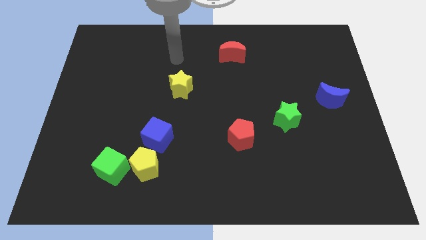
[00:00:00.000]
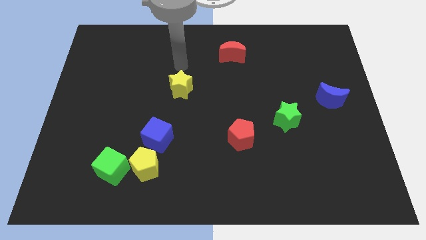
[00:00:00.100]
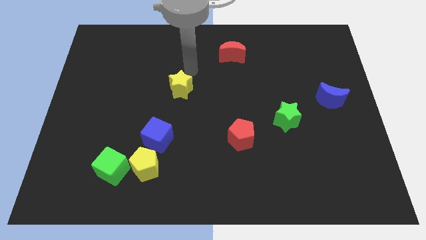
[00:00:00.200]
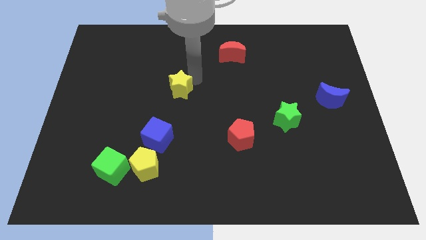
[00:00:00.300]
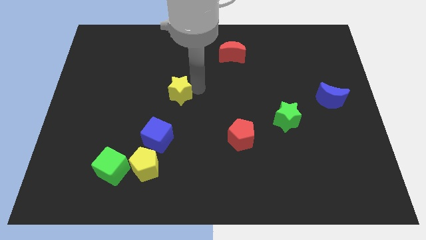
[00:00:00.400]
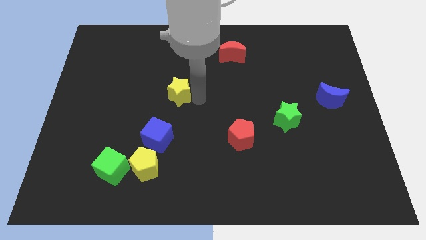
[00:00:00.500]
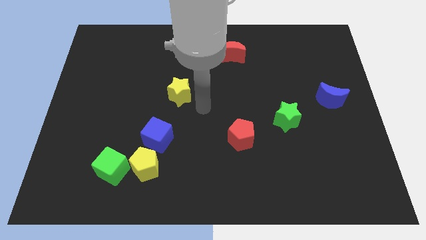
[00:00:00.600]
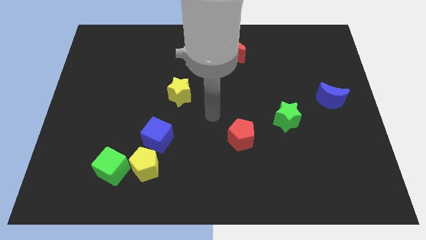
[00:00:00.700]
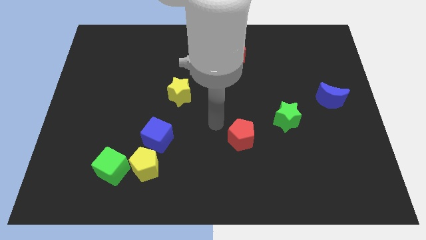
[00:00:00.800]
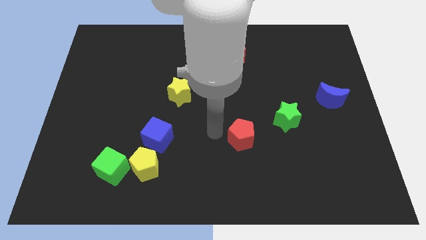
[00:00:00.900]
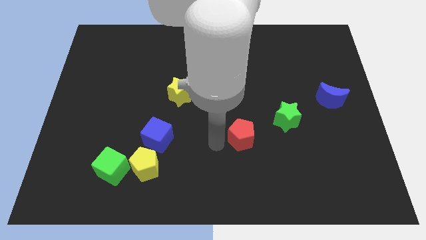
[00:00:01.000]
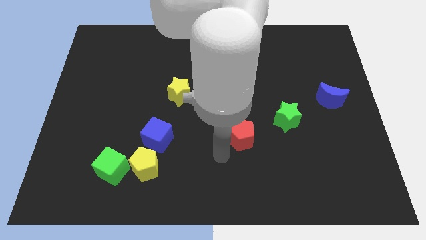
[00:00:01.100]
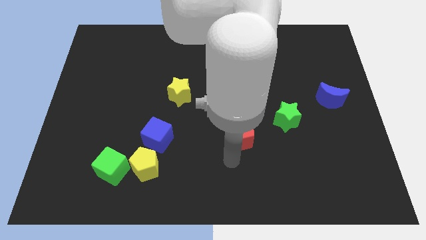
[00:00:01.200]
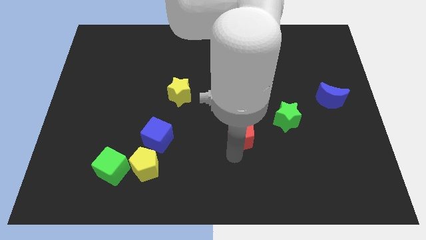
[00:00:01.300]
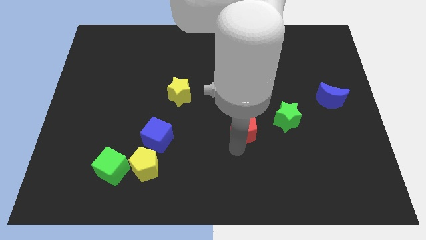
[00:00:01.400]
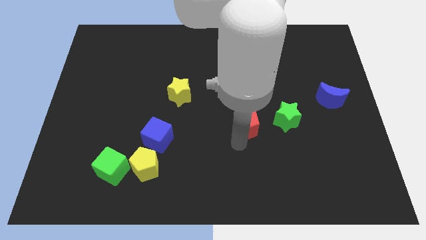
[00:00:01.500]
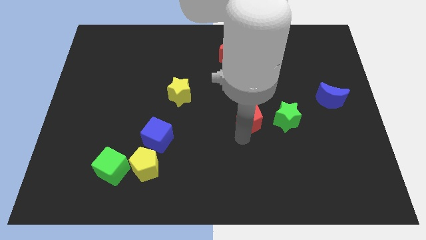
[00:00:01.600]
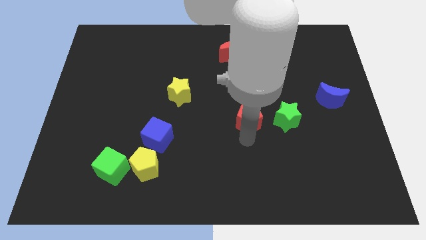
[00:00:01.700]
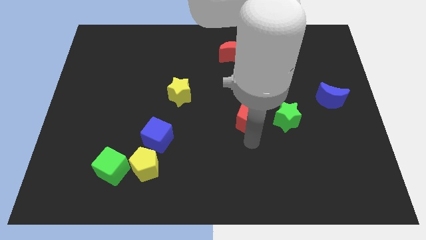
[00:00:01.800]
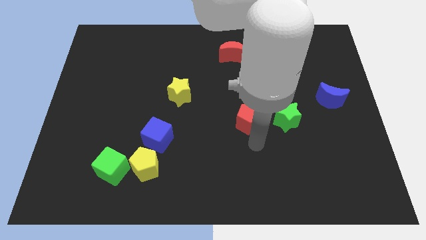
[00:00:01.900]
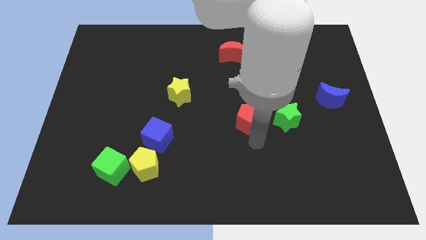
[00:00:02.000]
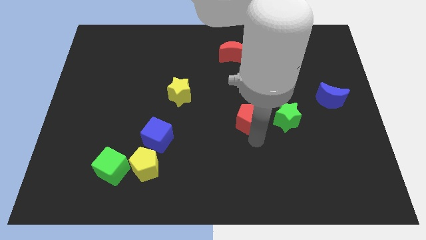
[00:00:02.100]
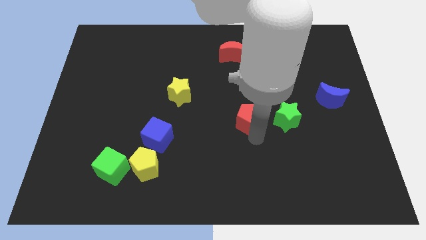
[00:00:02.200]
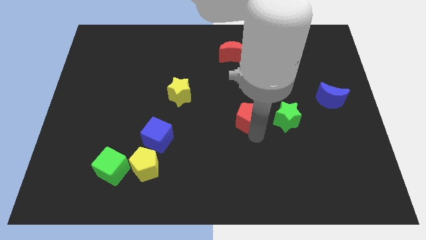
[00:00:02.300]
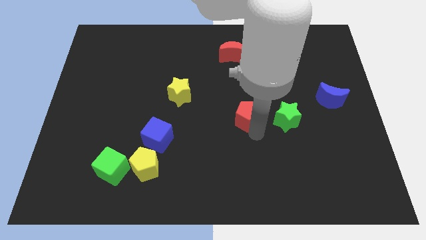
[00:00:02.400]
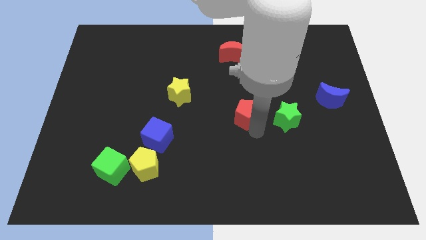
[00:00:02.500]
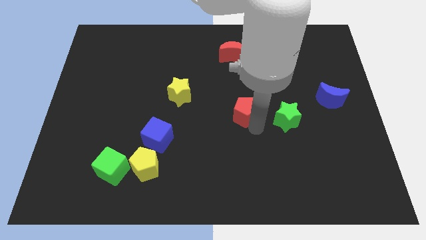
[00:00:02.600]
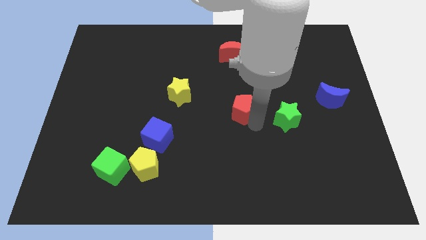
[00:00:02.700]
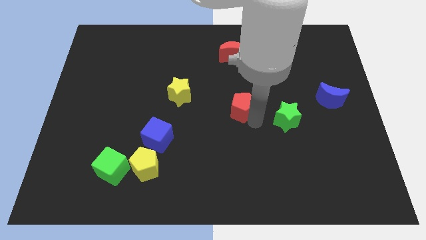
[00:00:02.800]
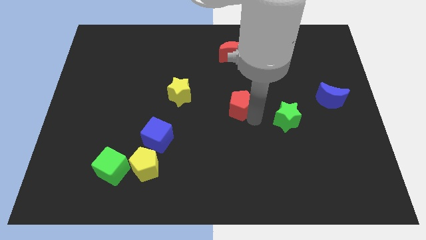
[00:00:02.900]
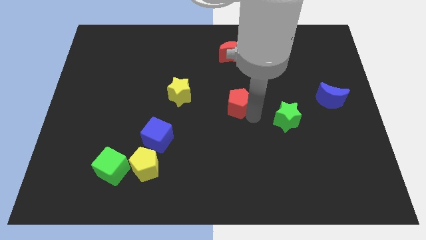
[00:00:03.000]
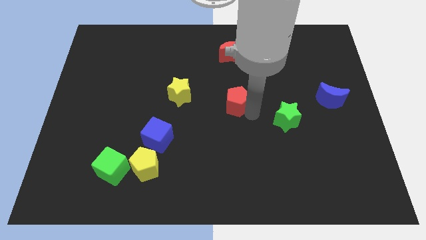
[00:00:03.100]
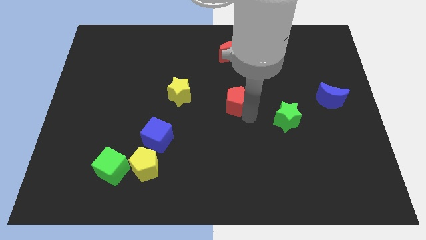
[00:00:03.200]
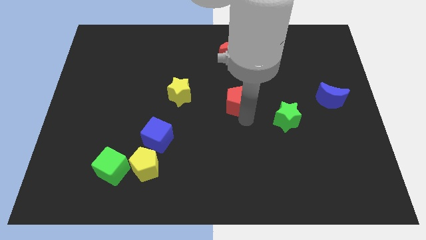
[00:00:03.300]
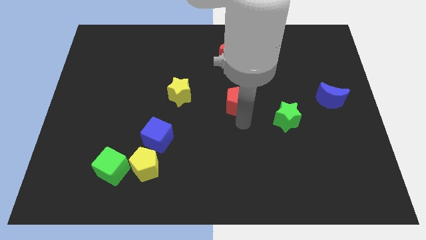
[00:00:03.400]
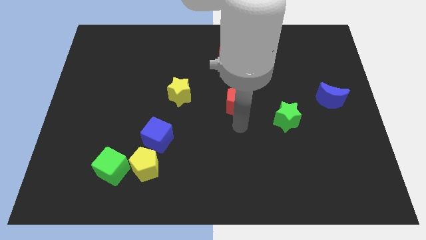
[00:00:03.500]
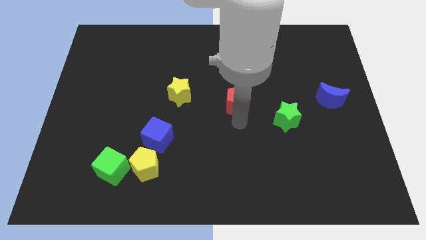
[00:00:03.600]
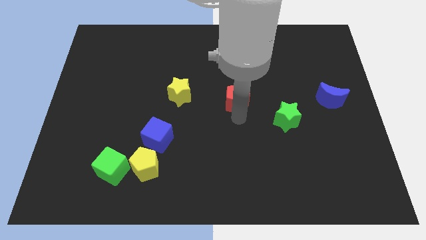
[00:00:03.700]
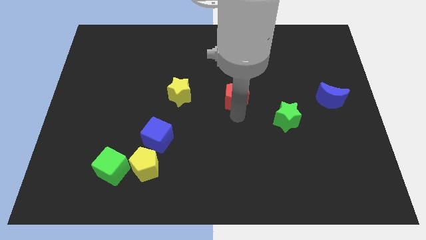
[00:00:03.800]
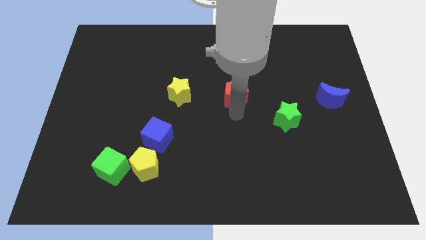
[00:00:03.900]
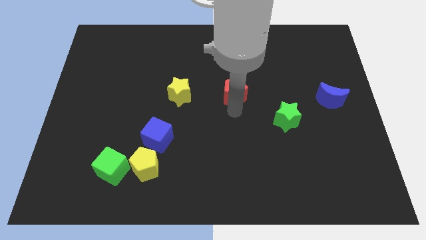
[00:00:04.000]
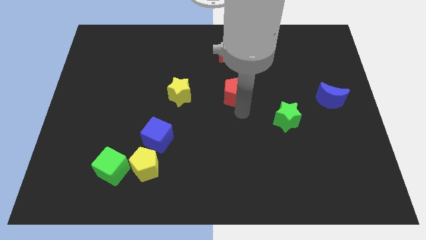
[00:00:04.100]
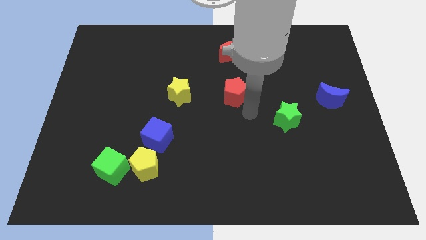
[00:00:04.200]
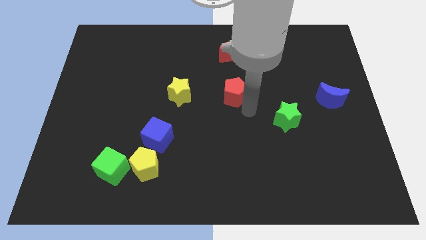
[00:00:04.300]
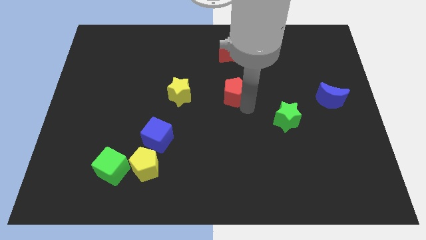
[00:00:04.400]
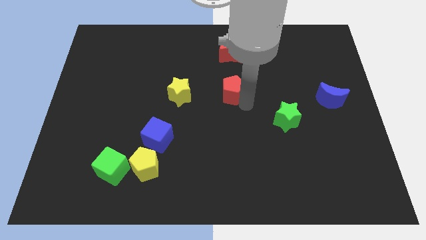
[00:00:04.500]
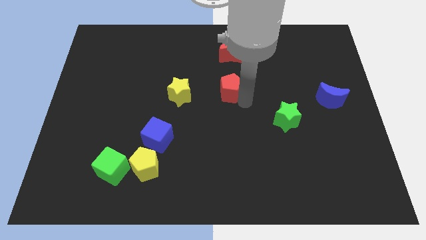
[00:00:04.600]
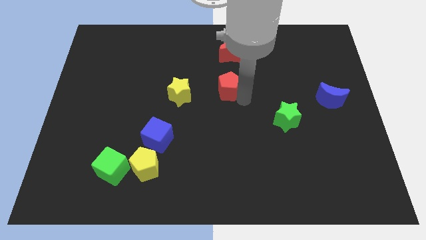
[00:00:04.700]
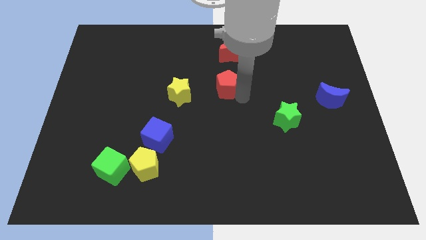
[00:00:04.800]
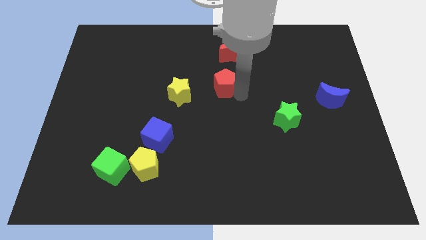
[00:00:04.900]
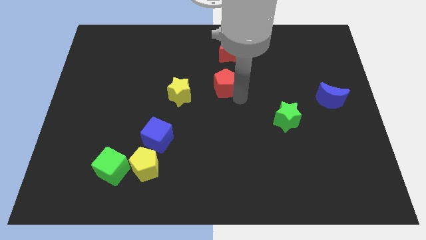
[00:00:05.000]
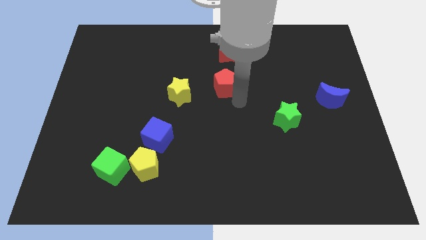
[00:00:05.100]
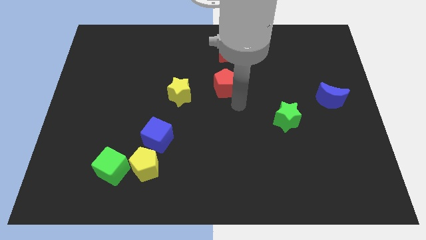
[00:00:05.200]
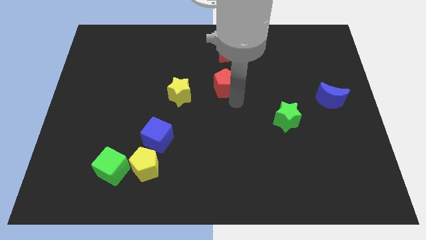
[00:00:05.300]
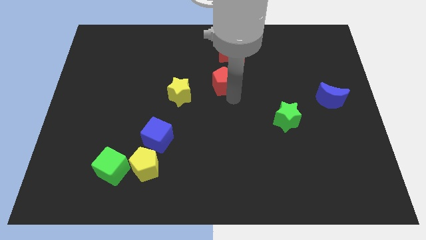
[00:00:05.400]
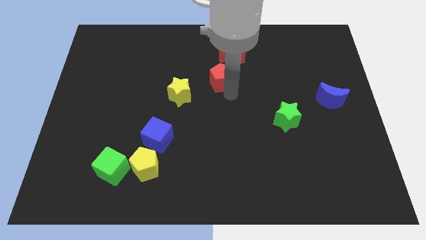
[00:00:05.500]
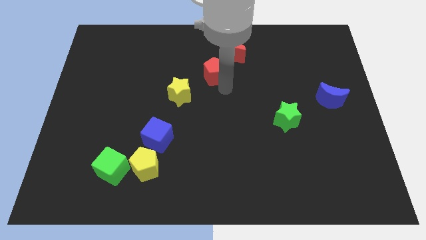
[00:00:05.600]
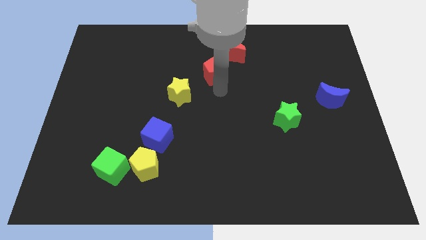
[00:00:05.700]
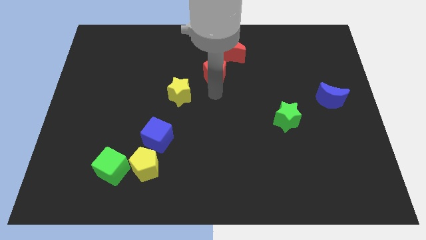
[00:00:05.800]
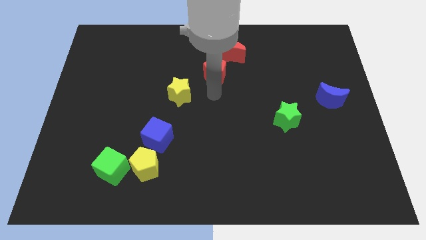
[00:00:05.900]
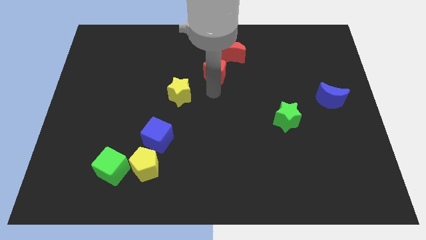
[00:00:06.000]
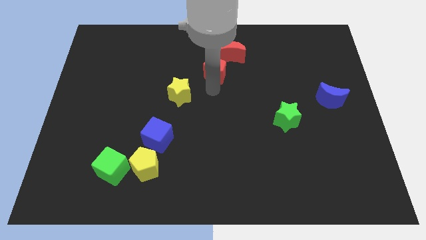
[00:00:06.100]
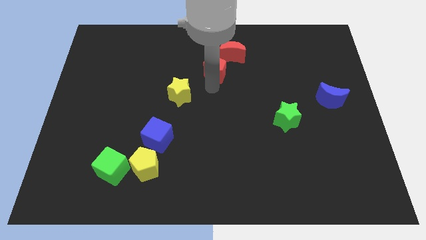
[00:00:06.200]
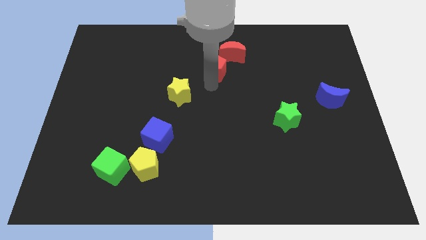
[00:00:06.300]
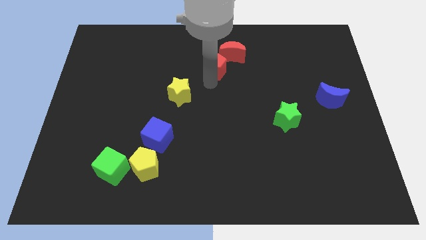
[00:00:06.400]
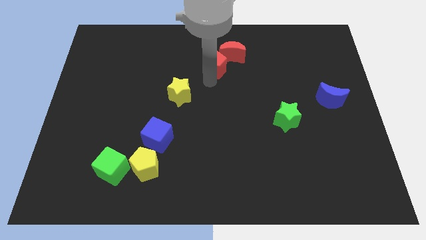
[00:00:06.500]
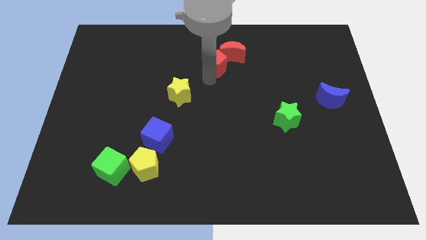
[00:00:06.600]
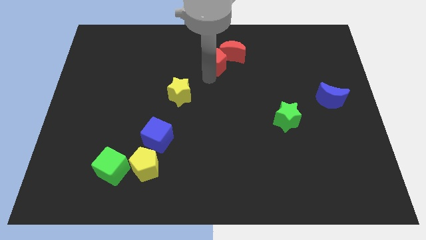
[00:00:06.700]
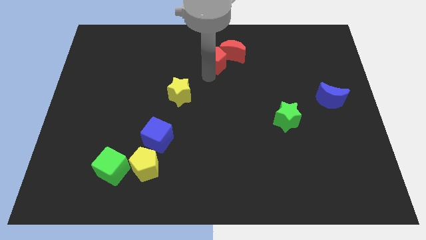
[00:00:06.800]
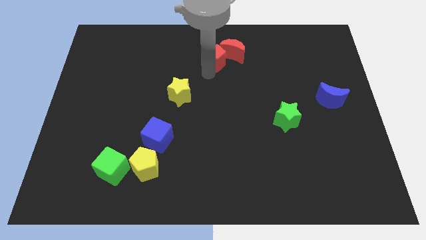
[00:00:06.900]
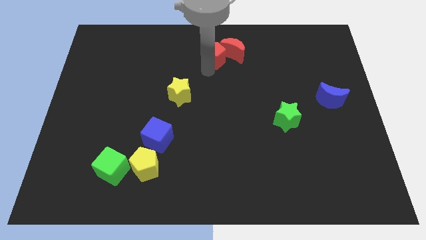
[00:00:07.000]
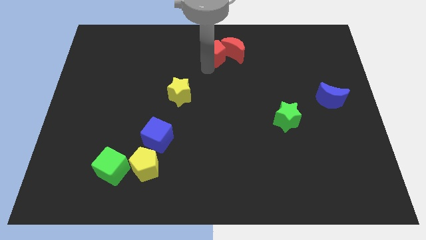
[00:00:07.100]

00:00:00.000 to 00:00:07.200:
move the red pentagon to the top
